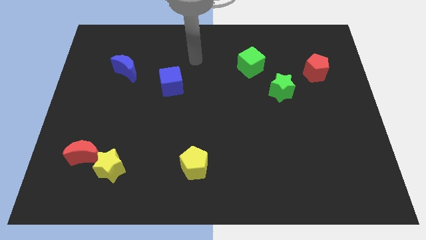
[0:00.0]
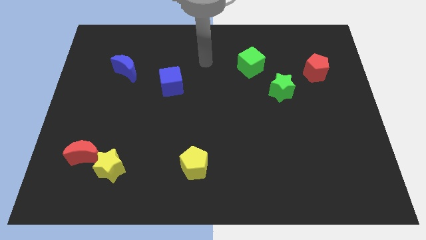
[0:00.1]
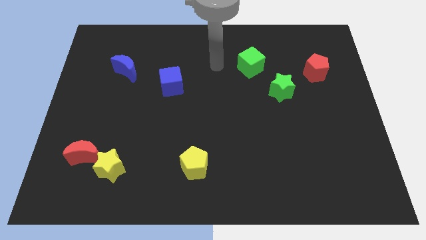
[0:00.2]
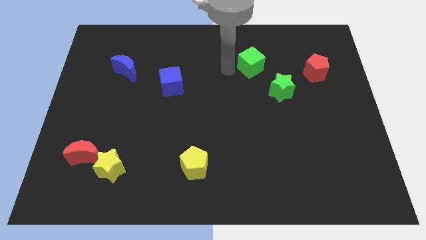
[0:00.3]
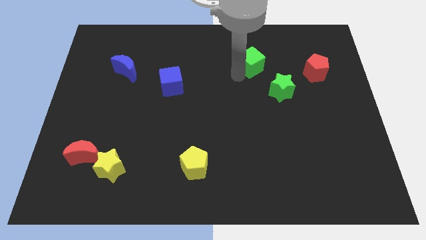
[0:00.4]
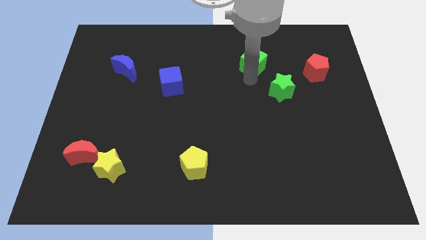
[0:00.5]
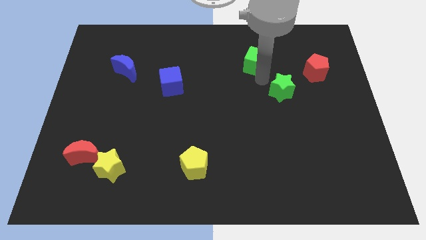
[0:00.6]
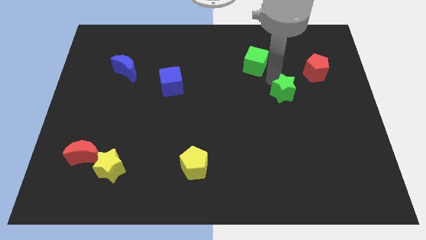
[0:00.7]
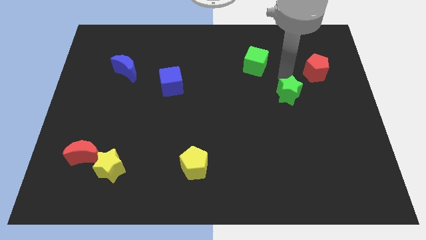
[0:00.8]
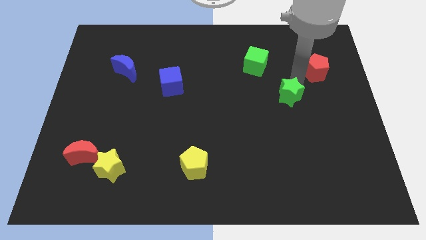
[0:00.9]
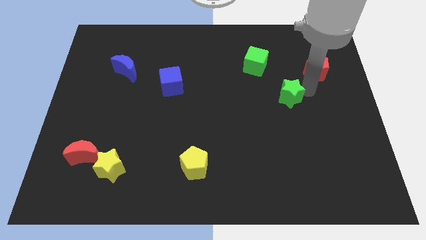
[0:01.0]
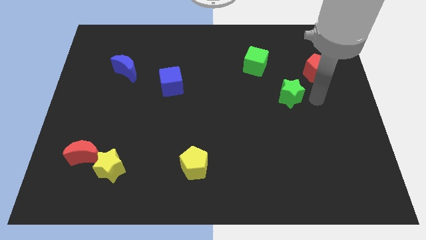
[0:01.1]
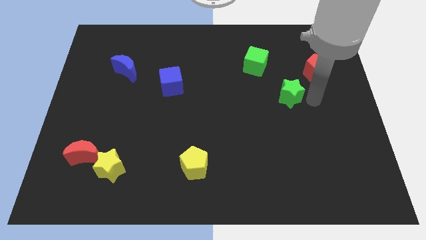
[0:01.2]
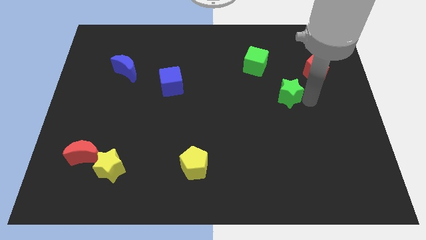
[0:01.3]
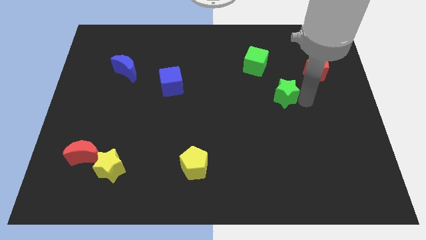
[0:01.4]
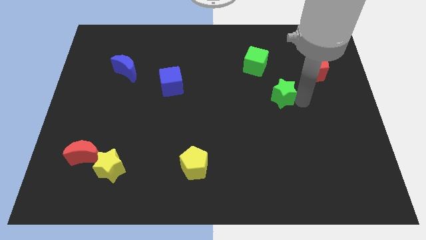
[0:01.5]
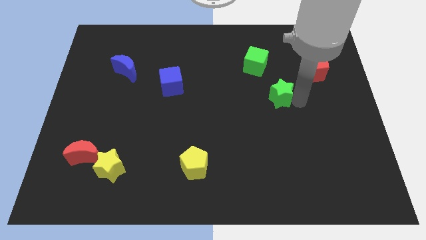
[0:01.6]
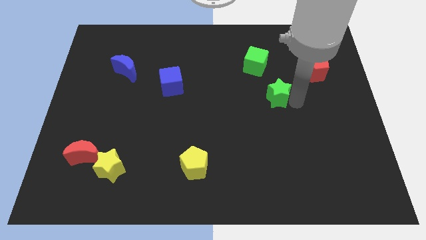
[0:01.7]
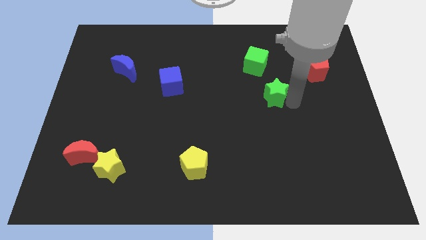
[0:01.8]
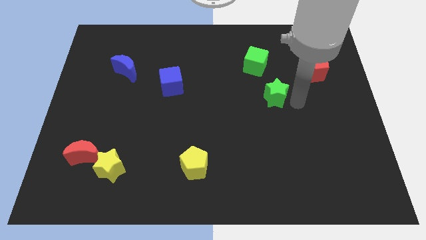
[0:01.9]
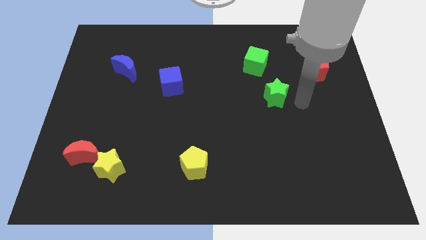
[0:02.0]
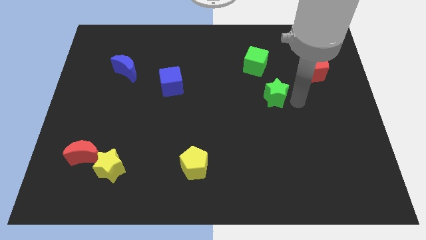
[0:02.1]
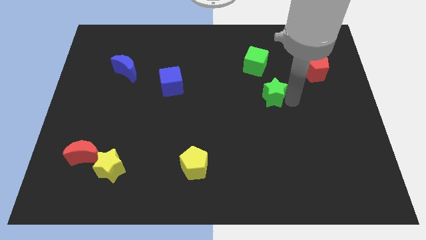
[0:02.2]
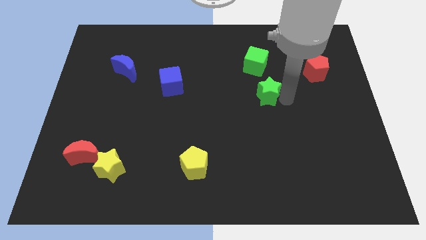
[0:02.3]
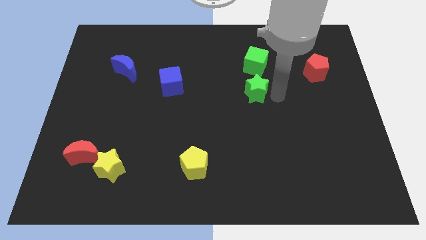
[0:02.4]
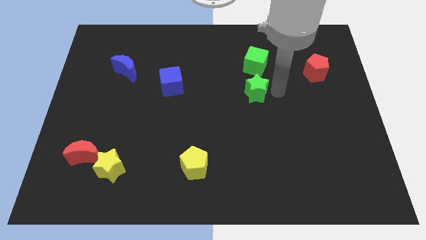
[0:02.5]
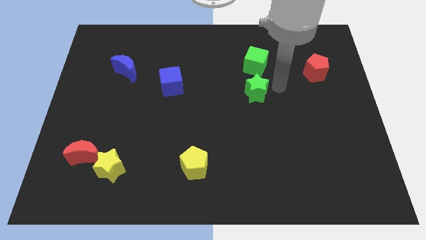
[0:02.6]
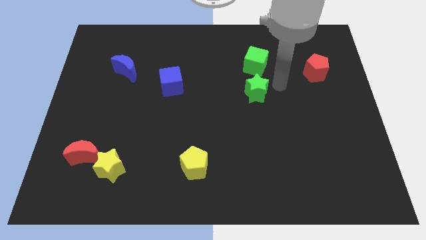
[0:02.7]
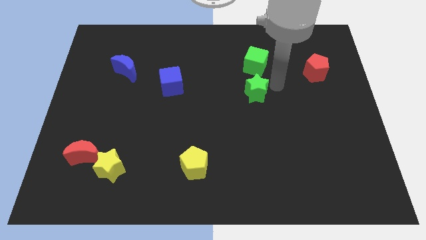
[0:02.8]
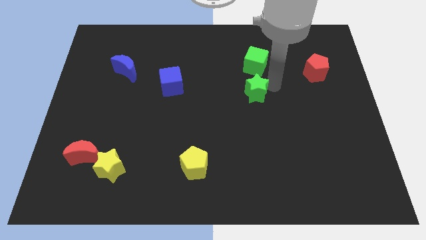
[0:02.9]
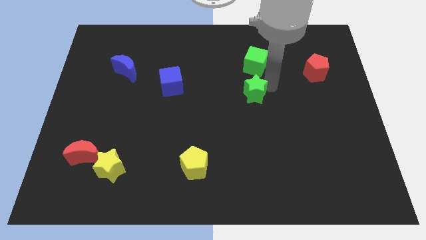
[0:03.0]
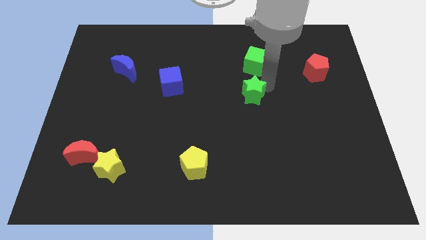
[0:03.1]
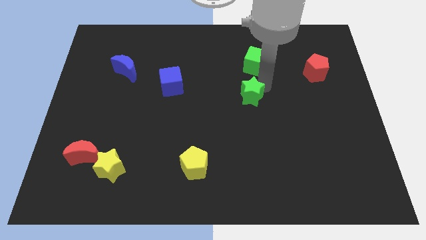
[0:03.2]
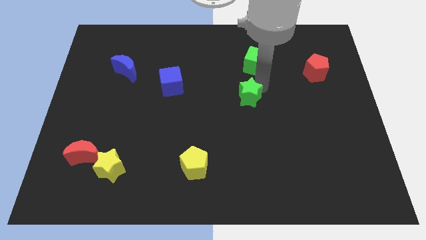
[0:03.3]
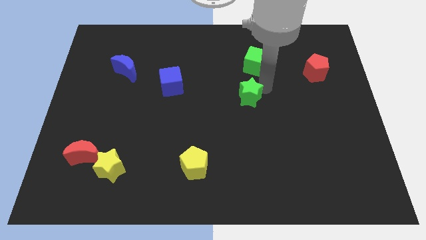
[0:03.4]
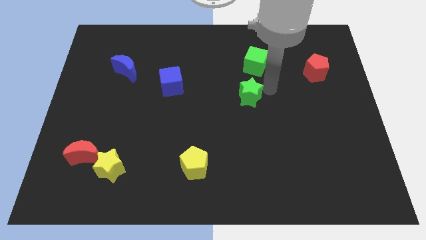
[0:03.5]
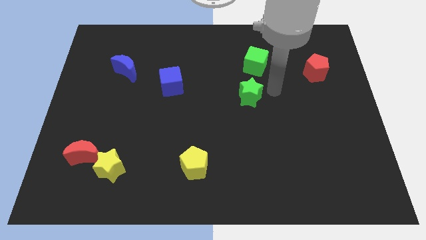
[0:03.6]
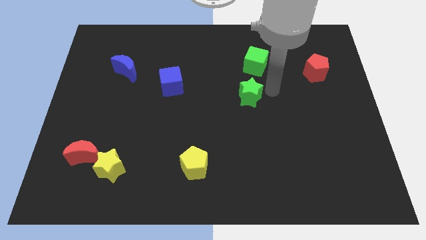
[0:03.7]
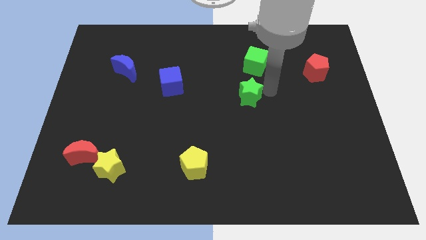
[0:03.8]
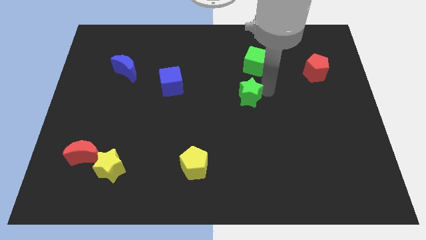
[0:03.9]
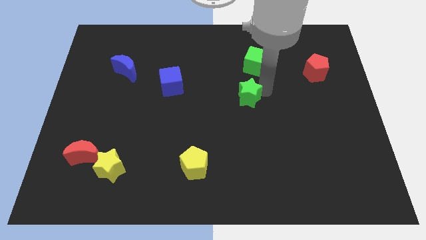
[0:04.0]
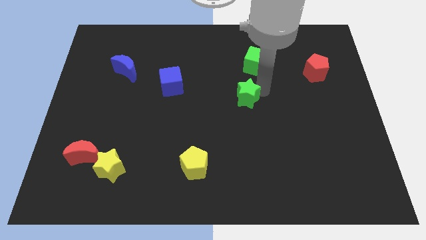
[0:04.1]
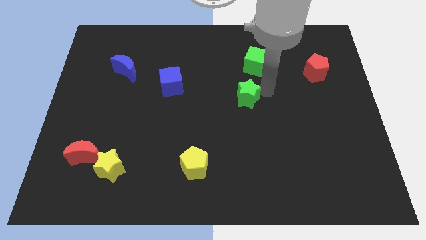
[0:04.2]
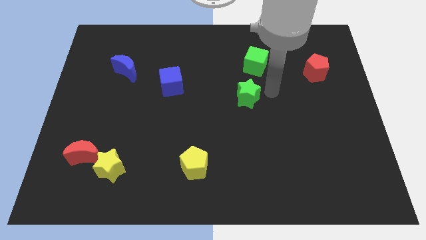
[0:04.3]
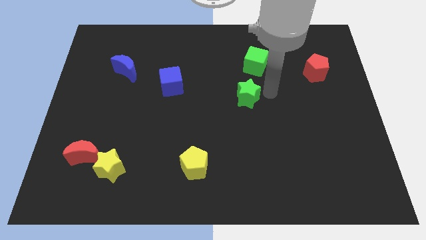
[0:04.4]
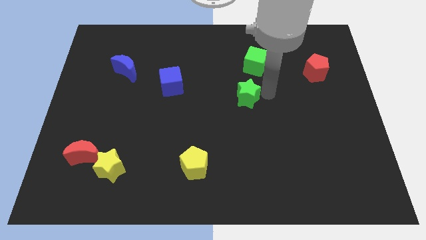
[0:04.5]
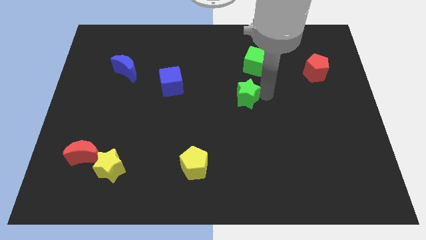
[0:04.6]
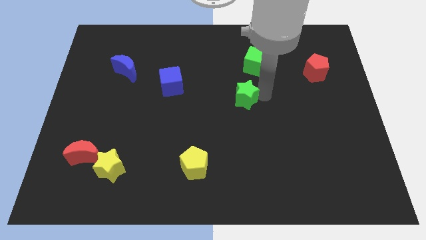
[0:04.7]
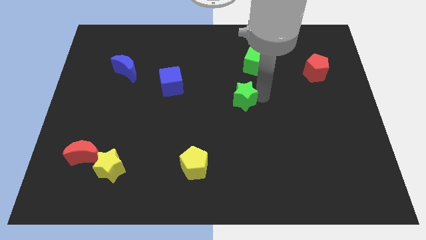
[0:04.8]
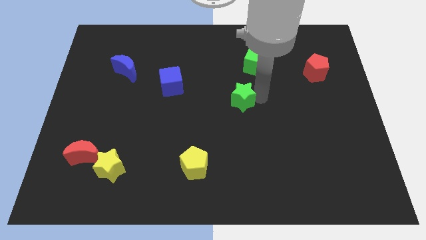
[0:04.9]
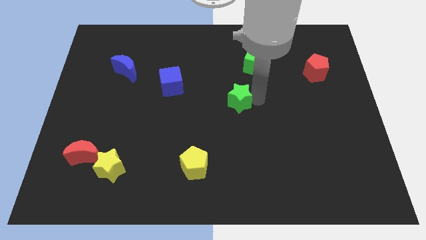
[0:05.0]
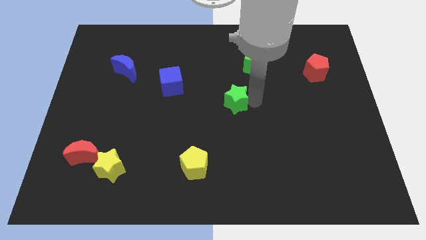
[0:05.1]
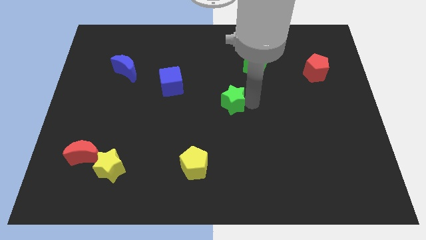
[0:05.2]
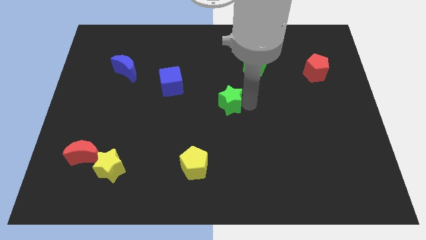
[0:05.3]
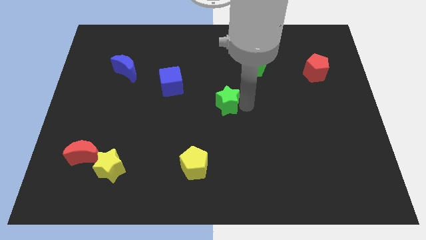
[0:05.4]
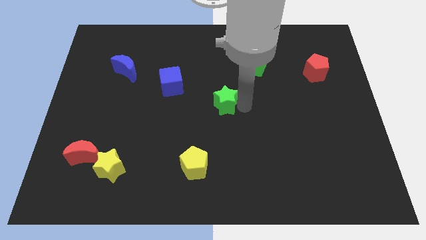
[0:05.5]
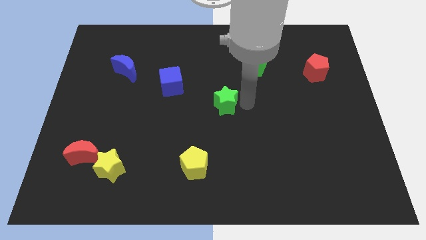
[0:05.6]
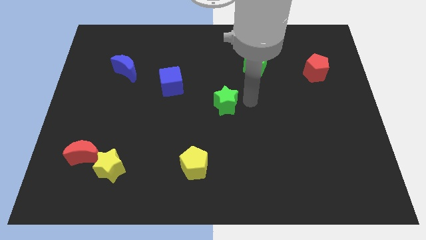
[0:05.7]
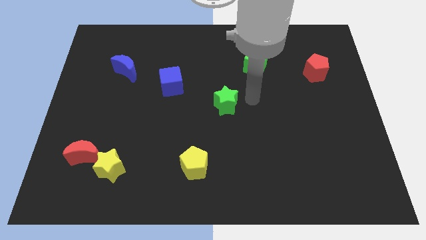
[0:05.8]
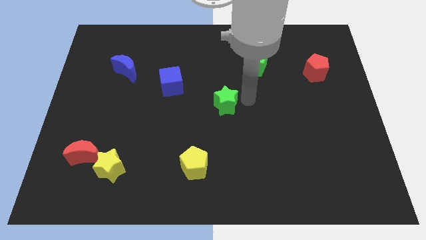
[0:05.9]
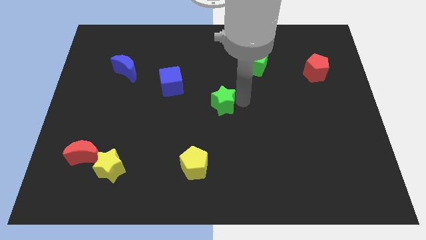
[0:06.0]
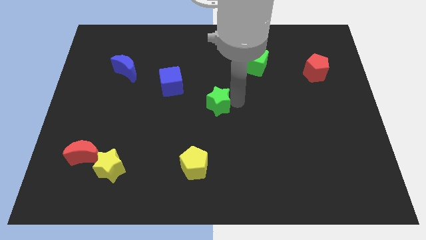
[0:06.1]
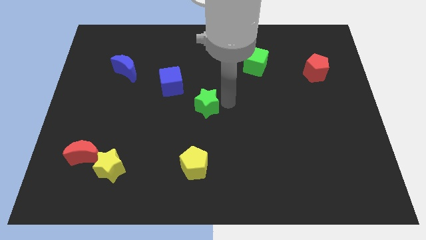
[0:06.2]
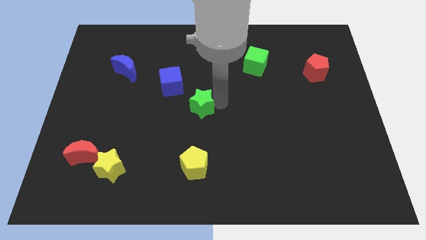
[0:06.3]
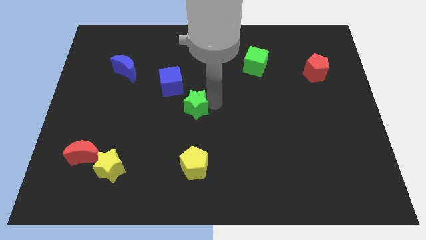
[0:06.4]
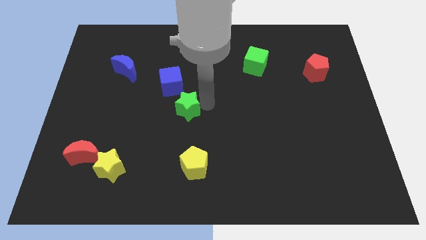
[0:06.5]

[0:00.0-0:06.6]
push the green star below the blue cube
